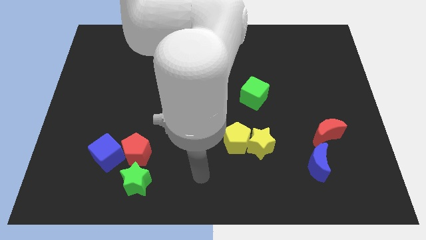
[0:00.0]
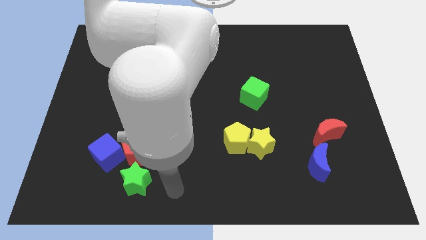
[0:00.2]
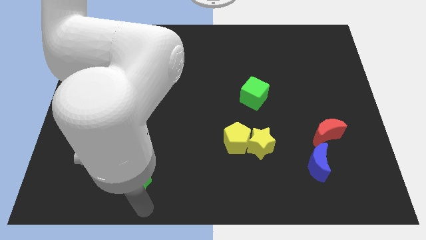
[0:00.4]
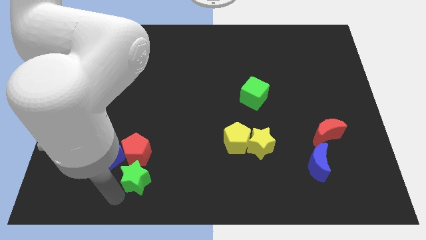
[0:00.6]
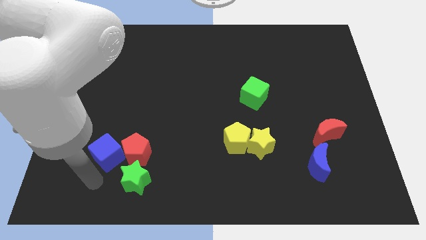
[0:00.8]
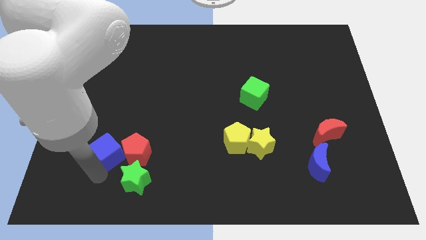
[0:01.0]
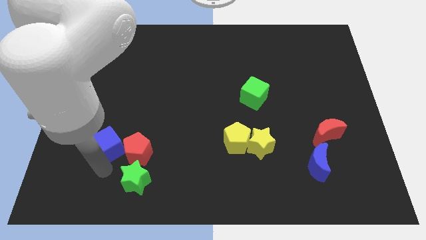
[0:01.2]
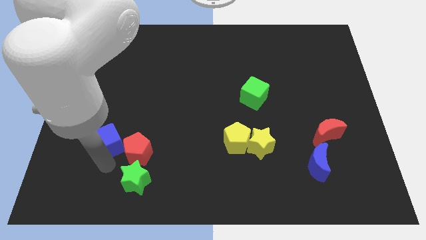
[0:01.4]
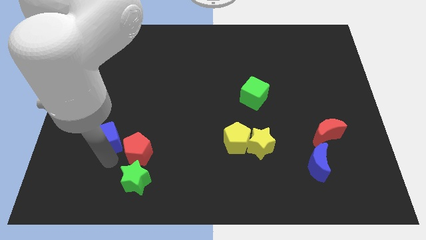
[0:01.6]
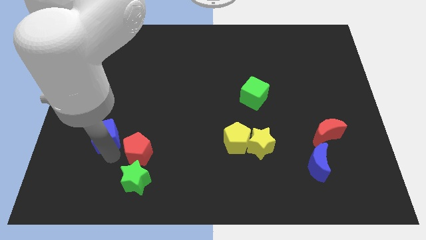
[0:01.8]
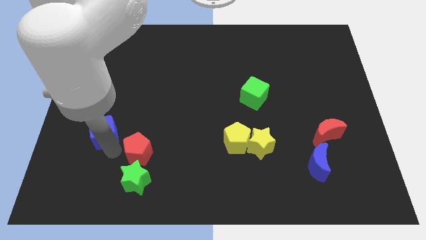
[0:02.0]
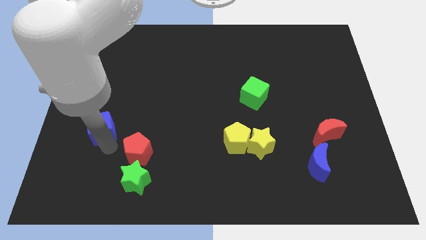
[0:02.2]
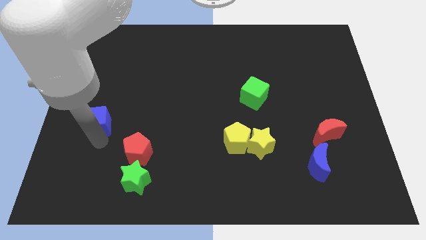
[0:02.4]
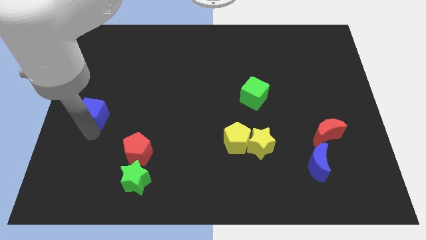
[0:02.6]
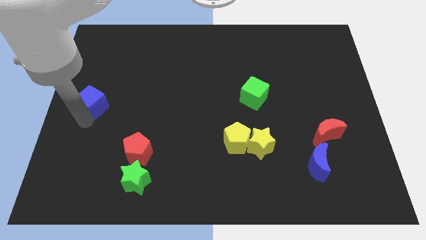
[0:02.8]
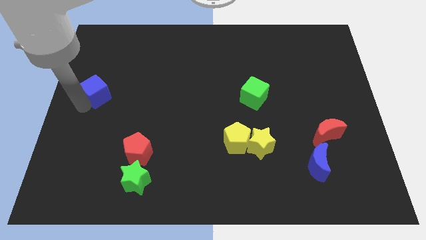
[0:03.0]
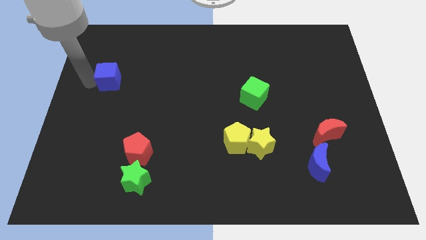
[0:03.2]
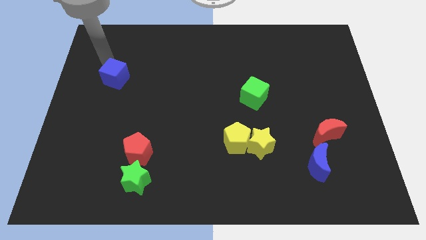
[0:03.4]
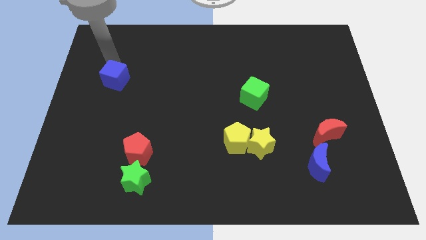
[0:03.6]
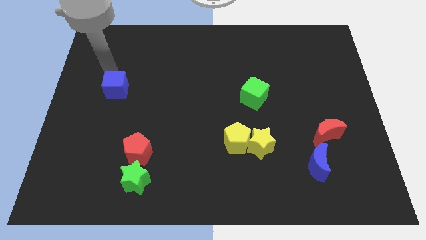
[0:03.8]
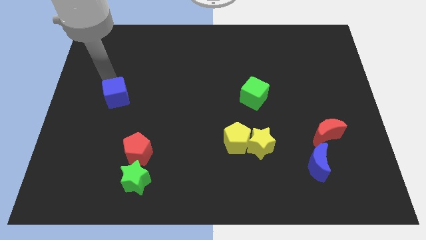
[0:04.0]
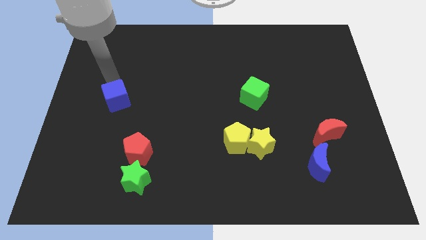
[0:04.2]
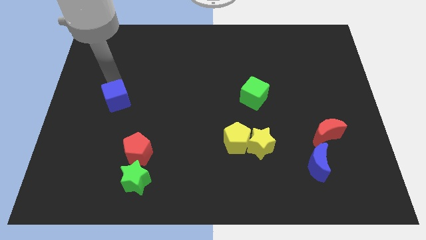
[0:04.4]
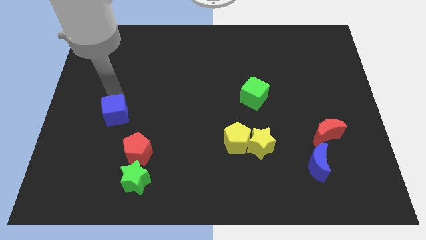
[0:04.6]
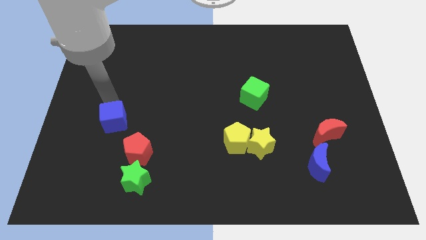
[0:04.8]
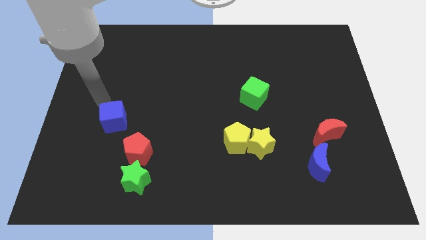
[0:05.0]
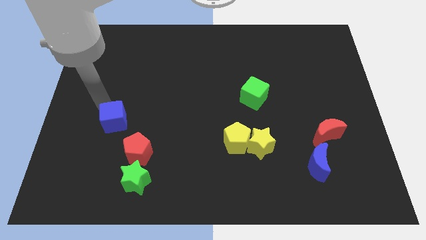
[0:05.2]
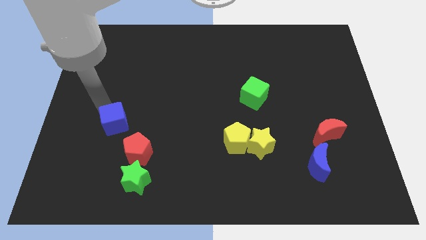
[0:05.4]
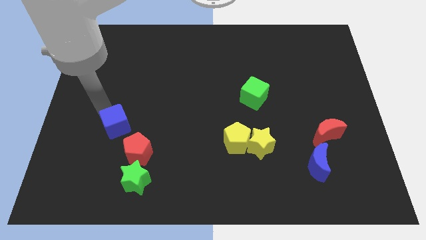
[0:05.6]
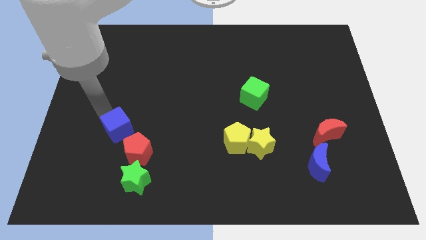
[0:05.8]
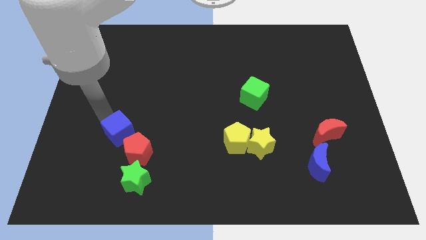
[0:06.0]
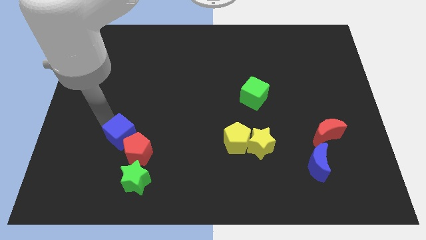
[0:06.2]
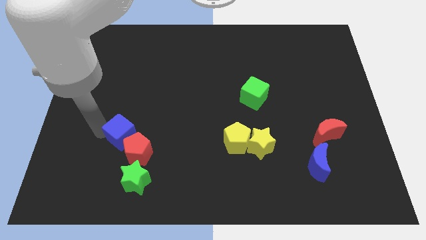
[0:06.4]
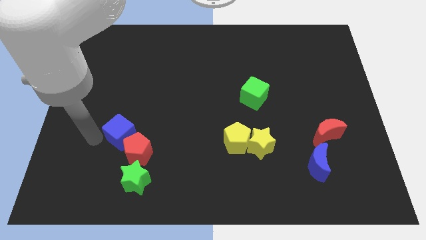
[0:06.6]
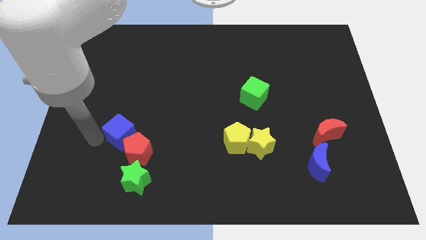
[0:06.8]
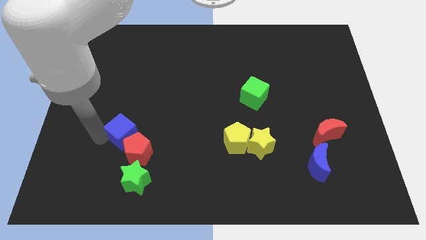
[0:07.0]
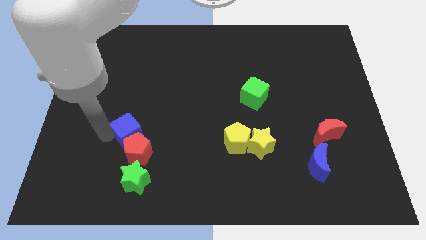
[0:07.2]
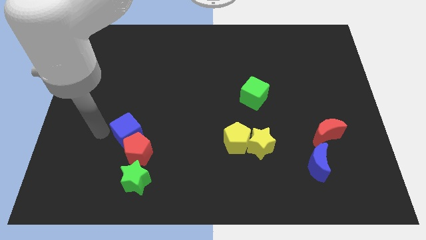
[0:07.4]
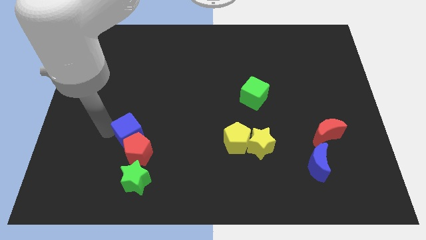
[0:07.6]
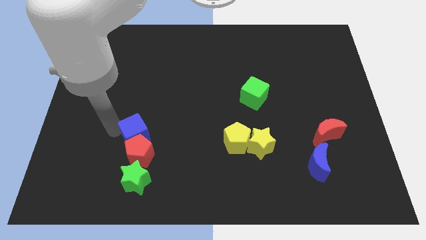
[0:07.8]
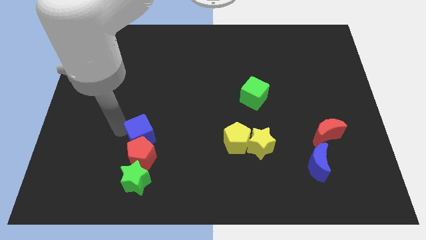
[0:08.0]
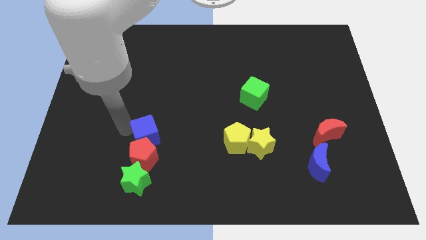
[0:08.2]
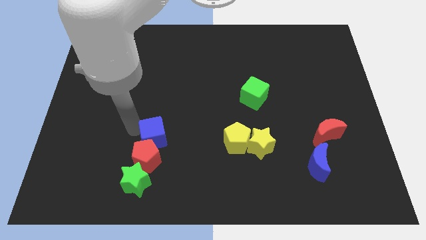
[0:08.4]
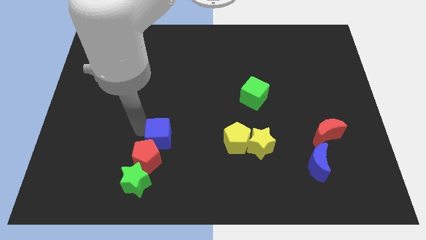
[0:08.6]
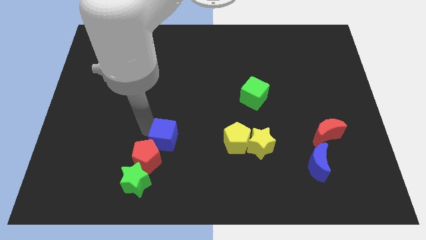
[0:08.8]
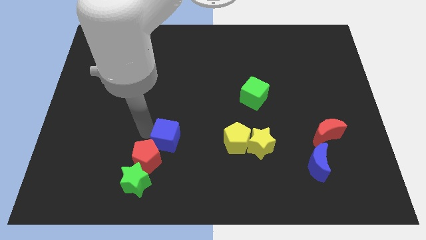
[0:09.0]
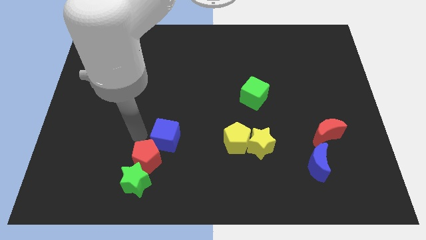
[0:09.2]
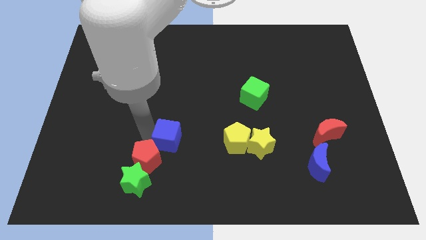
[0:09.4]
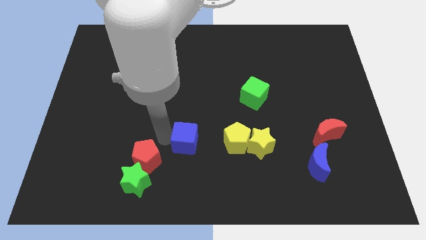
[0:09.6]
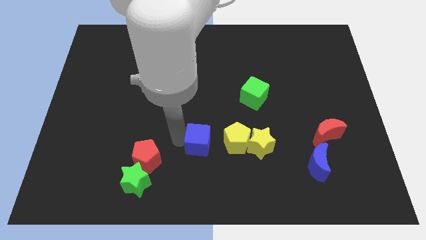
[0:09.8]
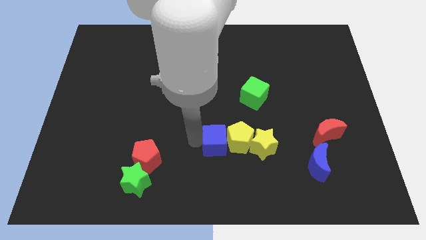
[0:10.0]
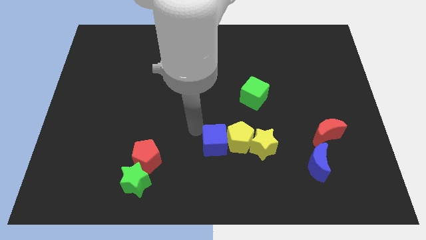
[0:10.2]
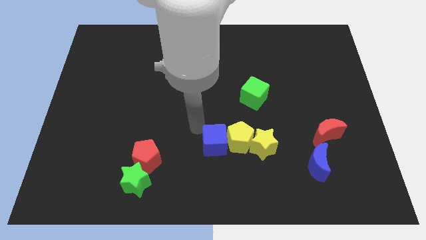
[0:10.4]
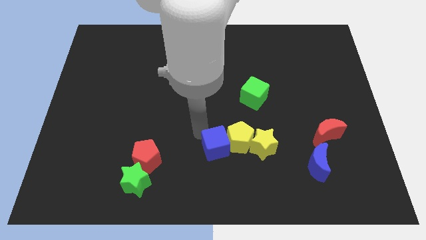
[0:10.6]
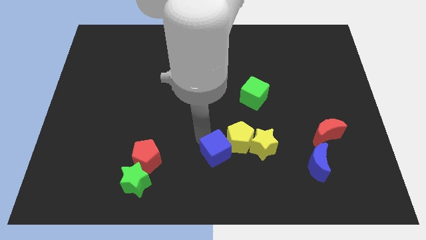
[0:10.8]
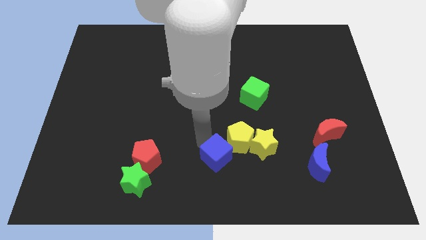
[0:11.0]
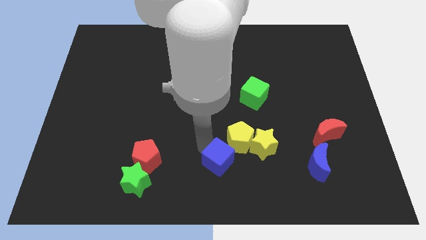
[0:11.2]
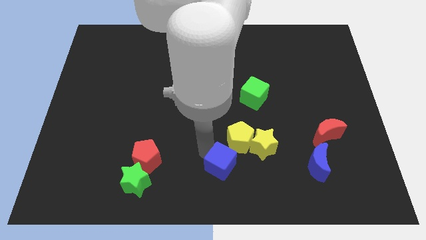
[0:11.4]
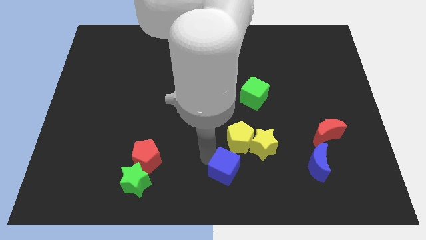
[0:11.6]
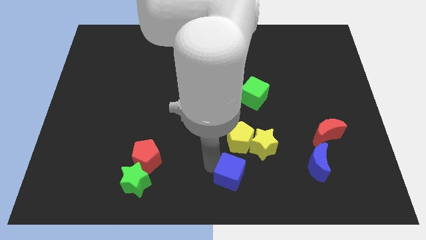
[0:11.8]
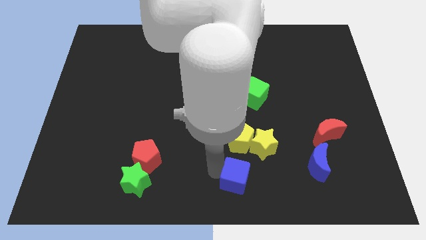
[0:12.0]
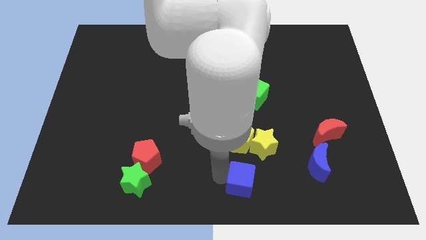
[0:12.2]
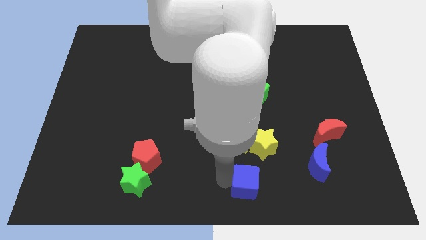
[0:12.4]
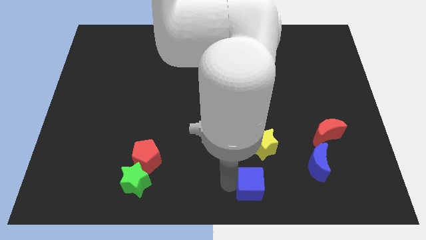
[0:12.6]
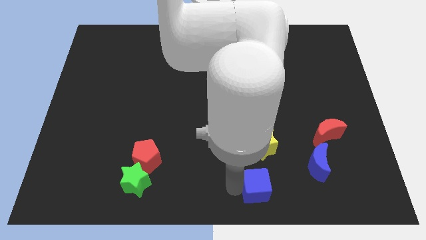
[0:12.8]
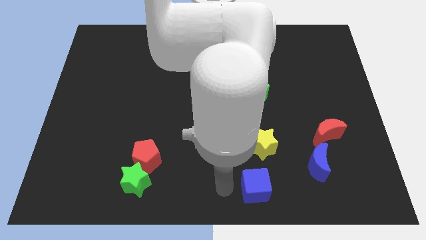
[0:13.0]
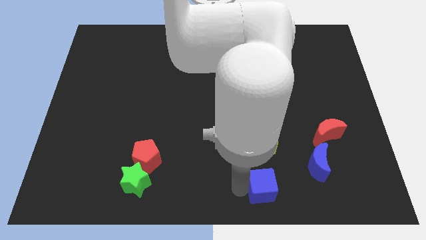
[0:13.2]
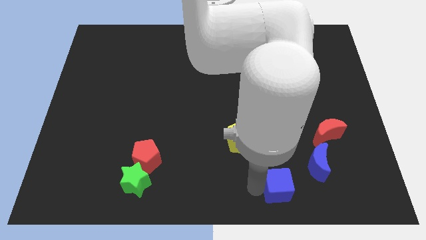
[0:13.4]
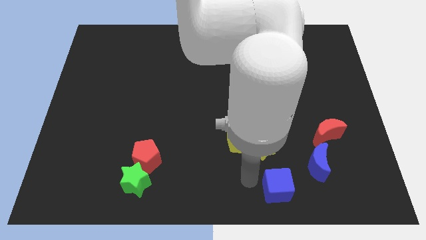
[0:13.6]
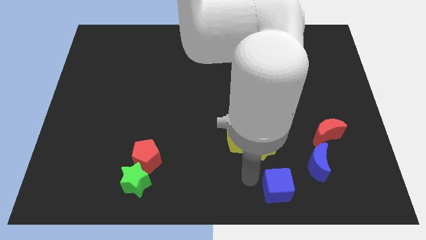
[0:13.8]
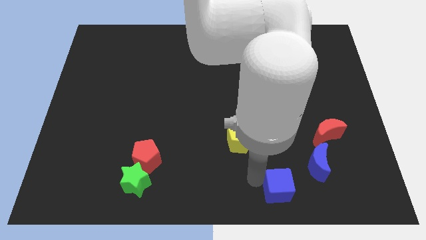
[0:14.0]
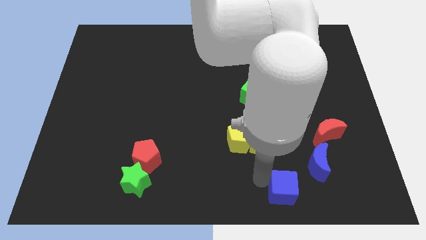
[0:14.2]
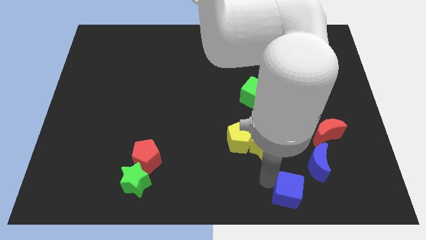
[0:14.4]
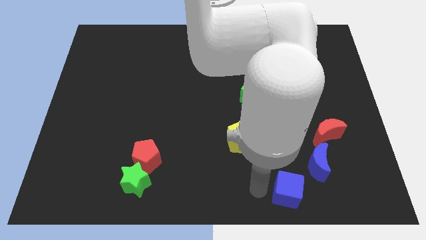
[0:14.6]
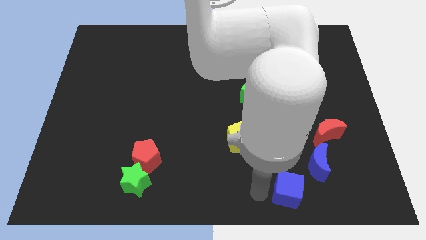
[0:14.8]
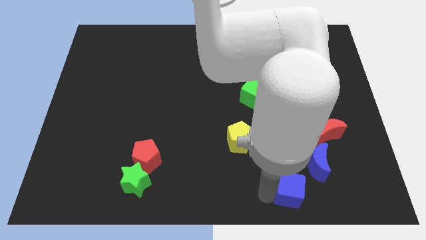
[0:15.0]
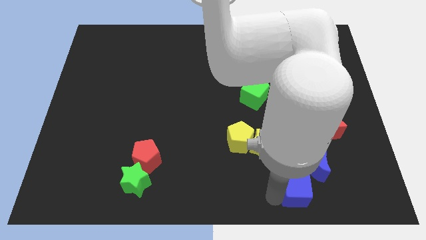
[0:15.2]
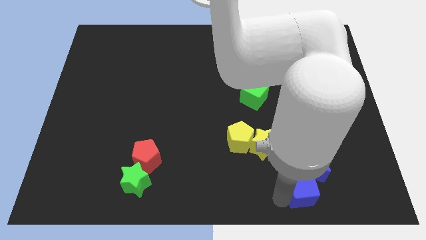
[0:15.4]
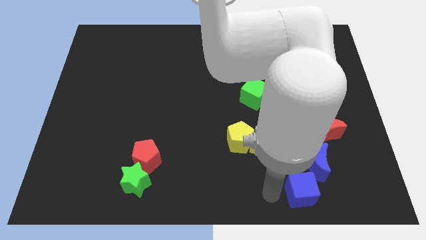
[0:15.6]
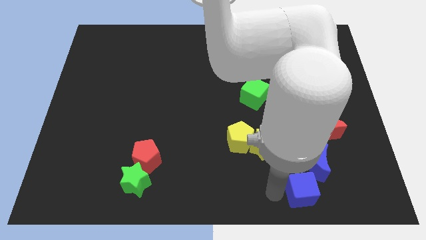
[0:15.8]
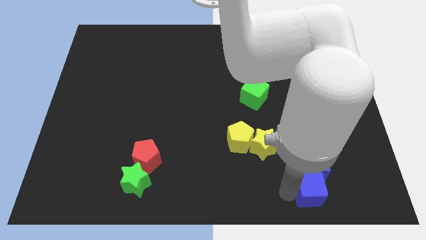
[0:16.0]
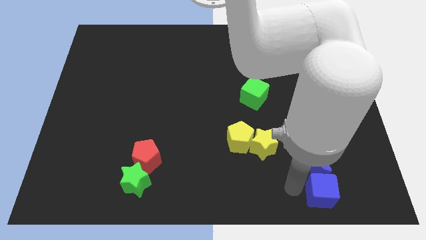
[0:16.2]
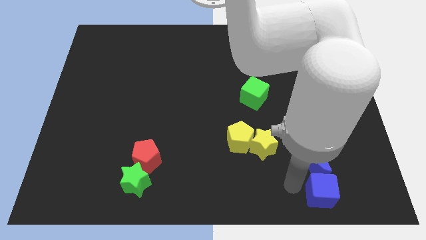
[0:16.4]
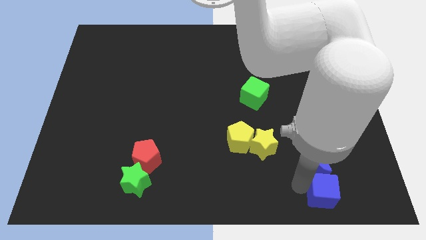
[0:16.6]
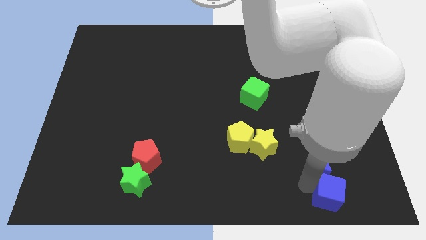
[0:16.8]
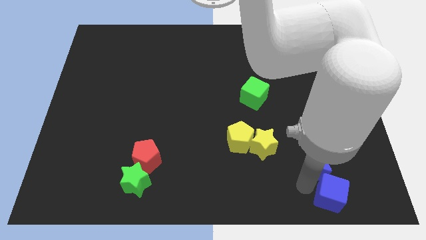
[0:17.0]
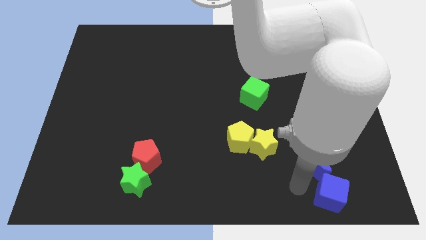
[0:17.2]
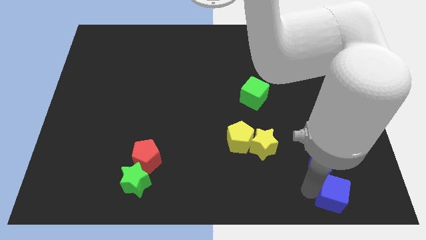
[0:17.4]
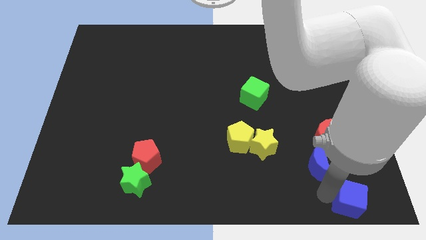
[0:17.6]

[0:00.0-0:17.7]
move the blue cube to the bottom right corner
